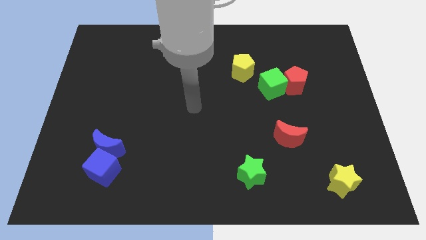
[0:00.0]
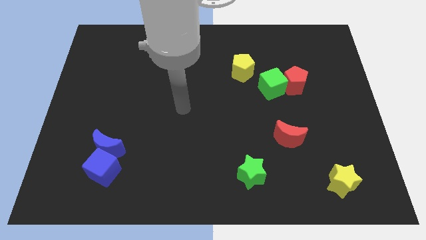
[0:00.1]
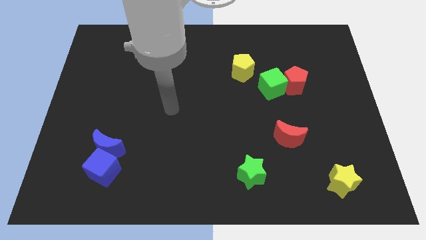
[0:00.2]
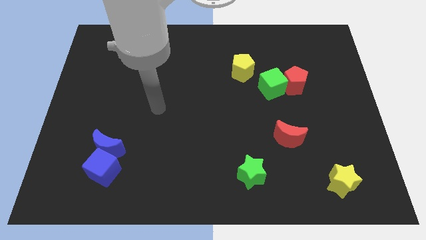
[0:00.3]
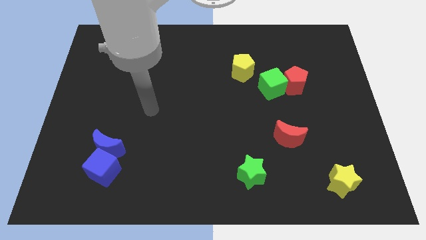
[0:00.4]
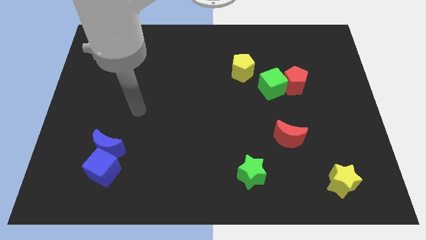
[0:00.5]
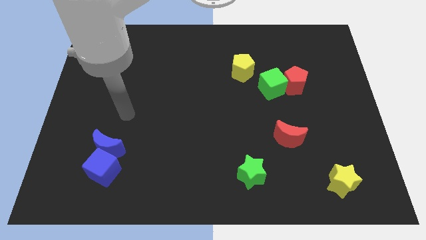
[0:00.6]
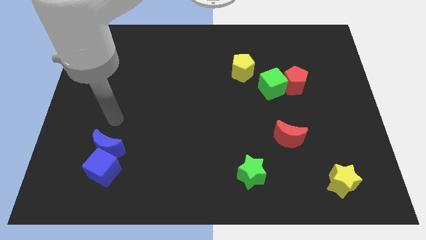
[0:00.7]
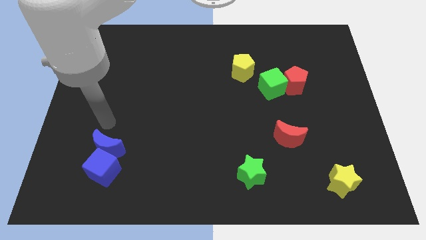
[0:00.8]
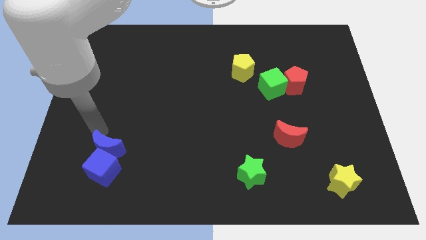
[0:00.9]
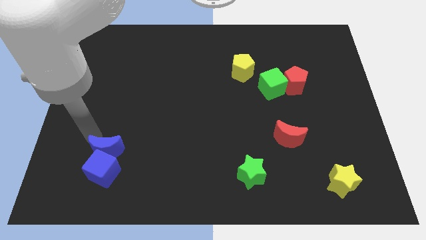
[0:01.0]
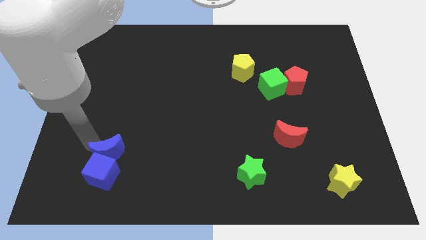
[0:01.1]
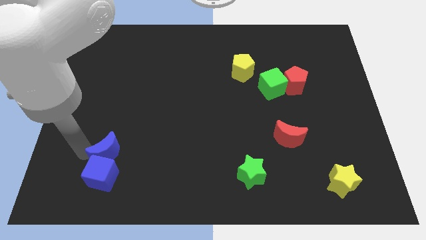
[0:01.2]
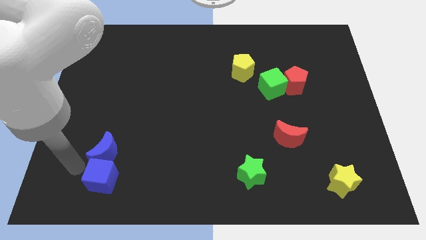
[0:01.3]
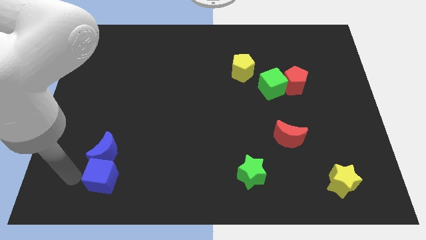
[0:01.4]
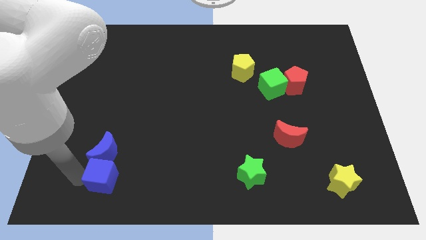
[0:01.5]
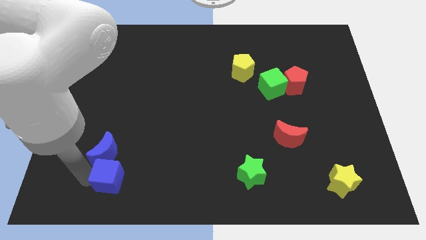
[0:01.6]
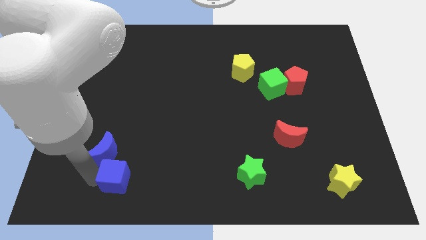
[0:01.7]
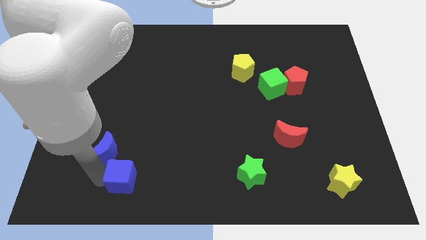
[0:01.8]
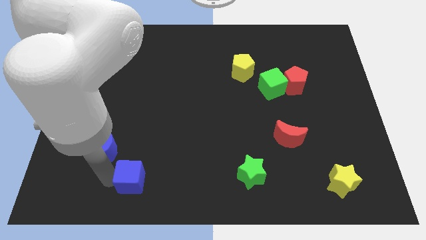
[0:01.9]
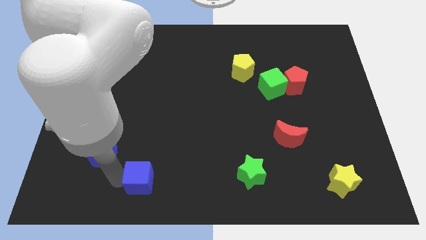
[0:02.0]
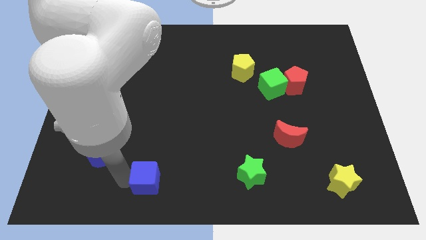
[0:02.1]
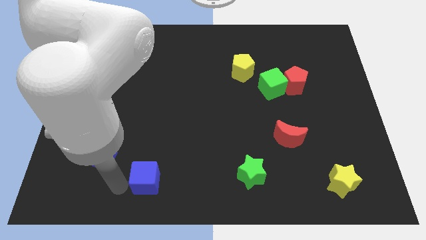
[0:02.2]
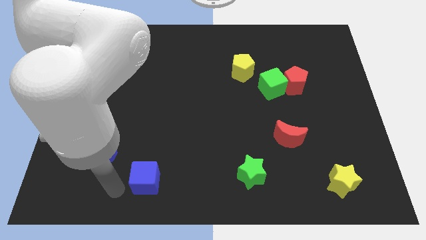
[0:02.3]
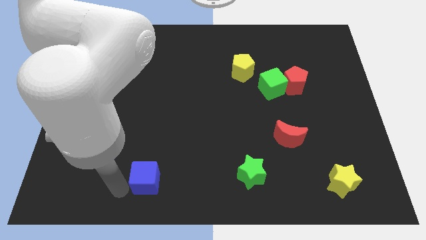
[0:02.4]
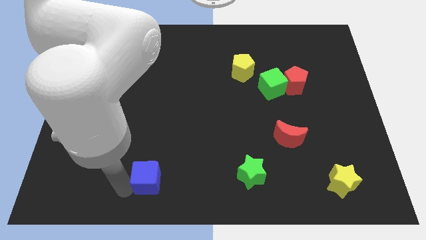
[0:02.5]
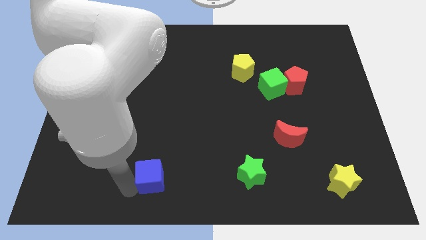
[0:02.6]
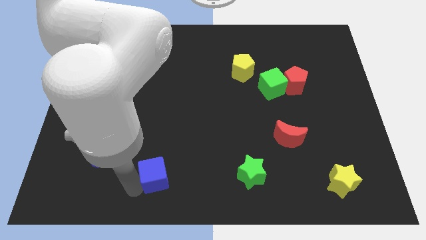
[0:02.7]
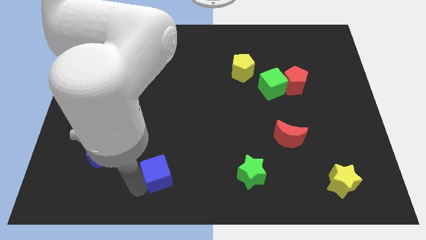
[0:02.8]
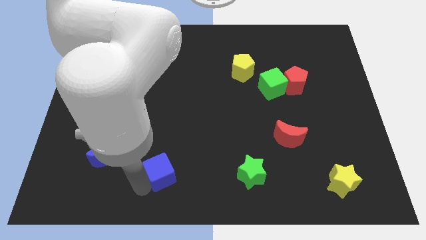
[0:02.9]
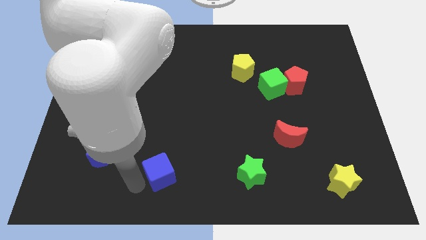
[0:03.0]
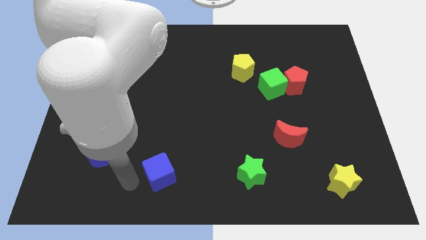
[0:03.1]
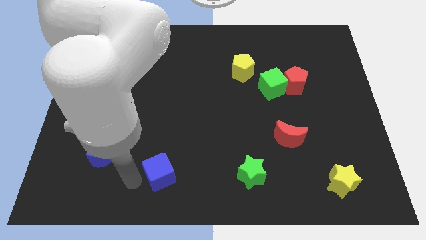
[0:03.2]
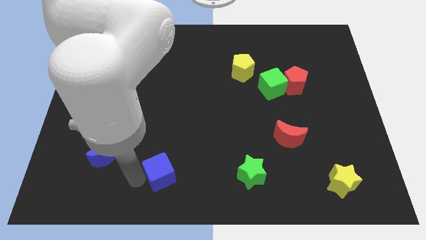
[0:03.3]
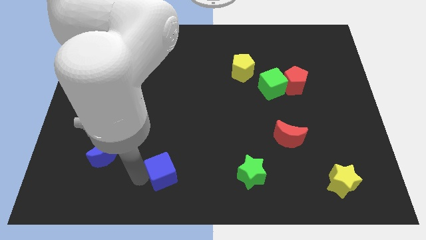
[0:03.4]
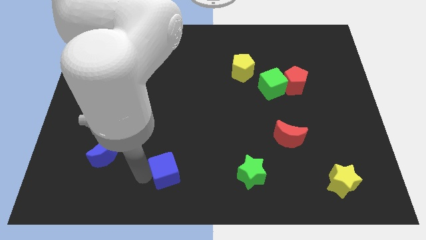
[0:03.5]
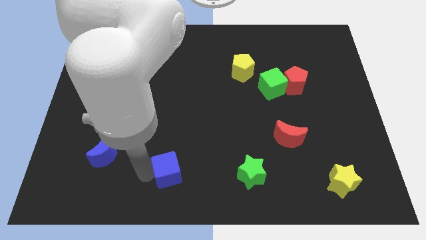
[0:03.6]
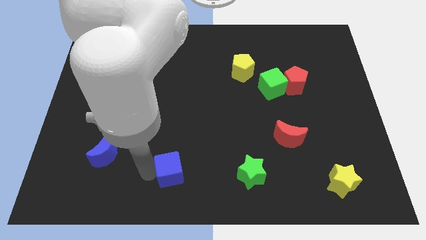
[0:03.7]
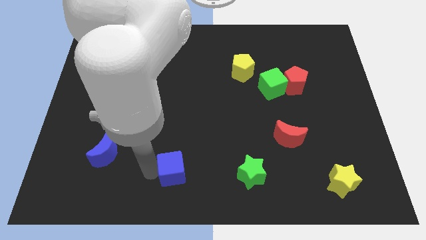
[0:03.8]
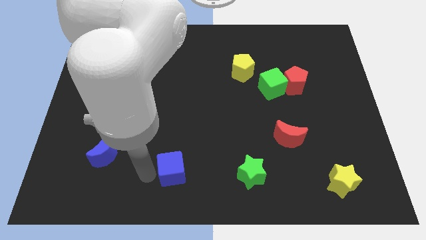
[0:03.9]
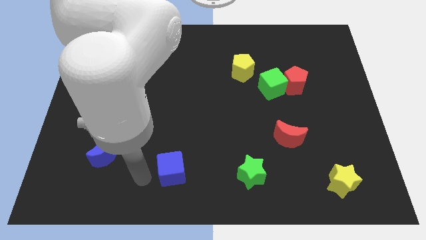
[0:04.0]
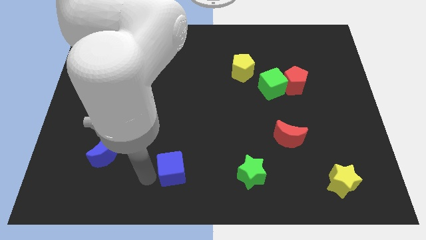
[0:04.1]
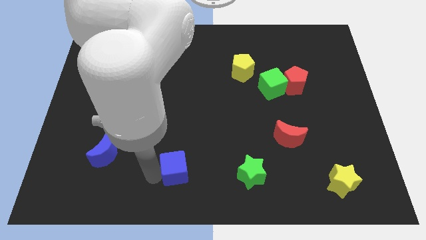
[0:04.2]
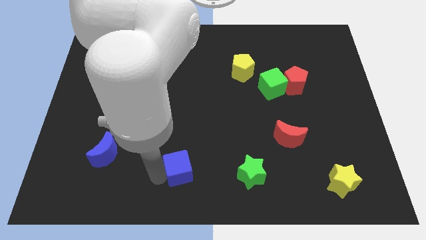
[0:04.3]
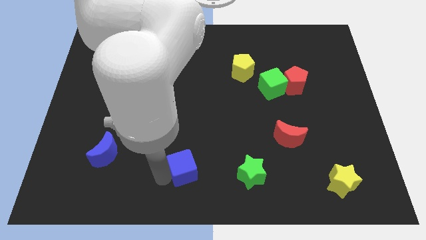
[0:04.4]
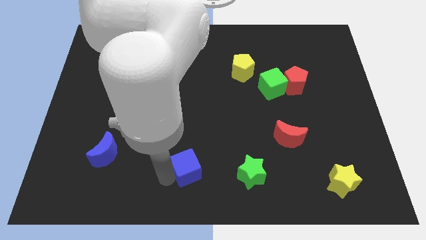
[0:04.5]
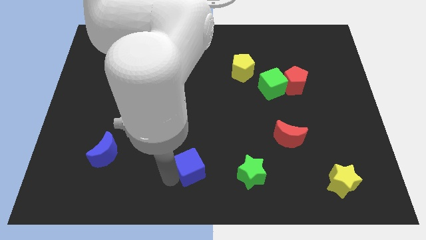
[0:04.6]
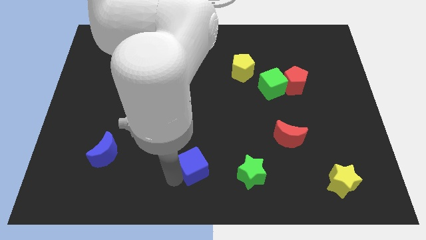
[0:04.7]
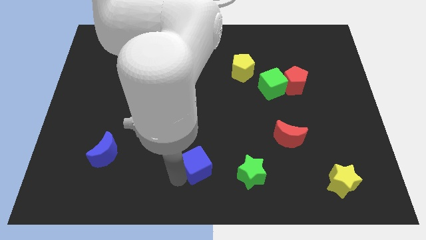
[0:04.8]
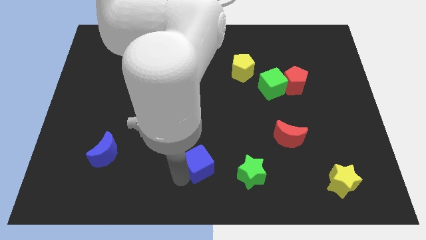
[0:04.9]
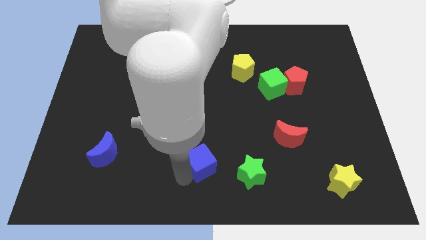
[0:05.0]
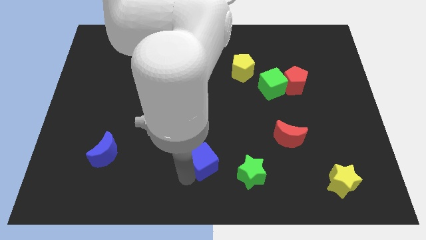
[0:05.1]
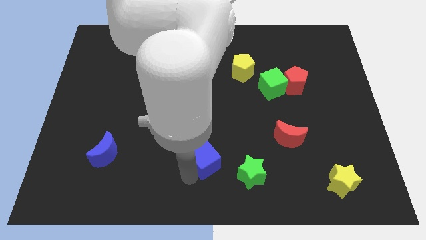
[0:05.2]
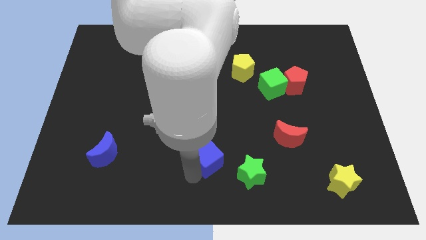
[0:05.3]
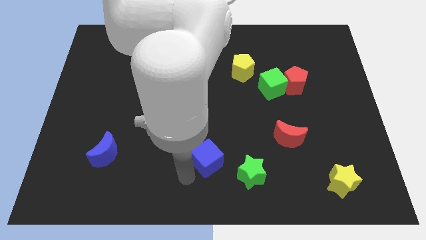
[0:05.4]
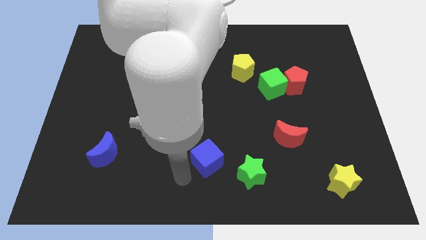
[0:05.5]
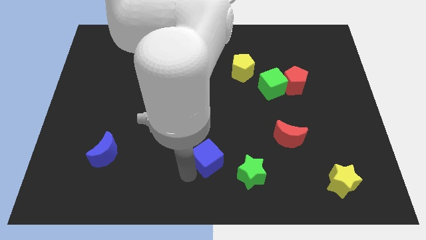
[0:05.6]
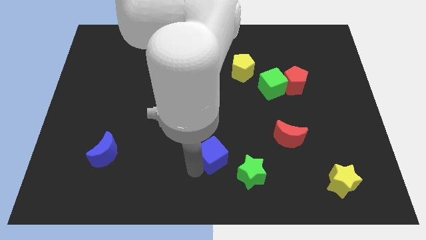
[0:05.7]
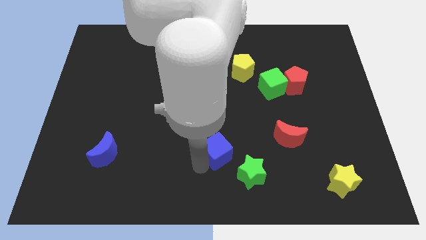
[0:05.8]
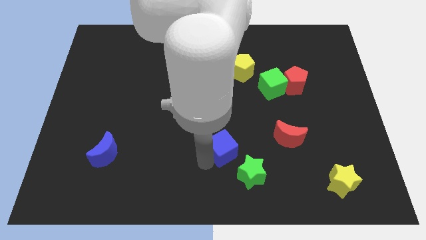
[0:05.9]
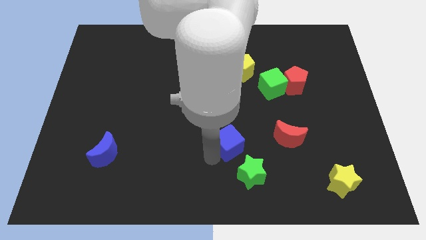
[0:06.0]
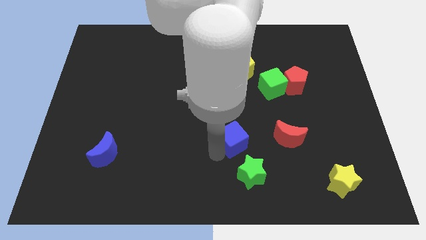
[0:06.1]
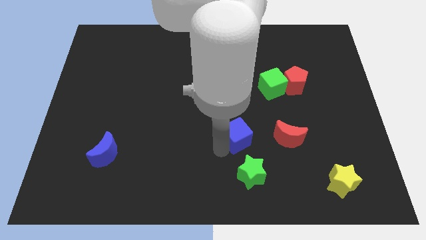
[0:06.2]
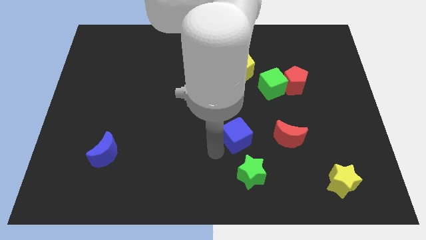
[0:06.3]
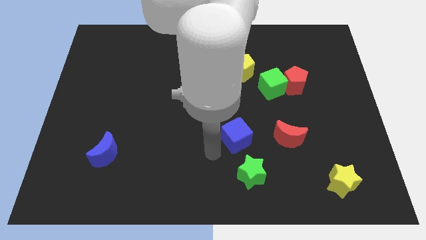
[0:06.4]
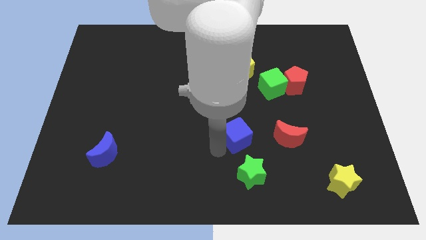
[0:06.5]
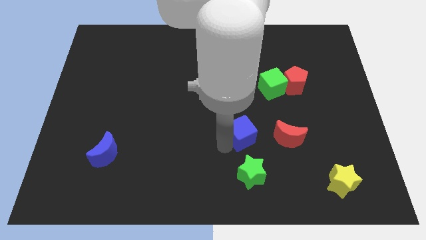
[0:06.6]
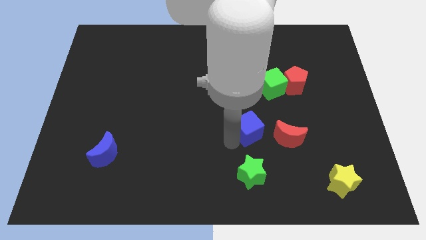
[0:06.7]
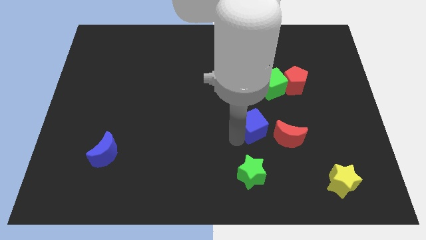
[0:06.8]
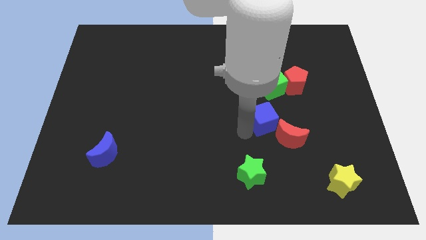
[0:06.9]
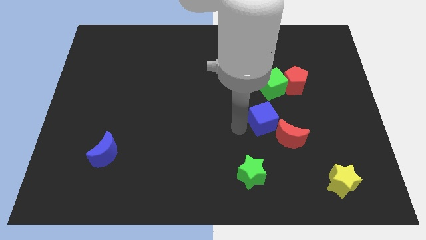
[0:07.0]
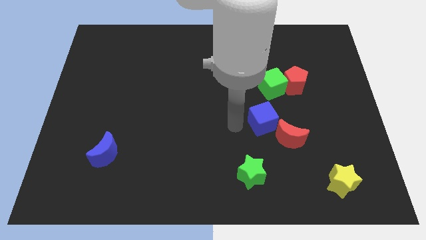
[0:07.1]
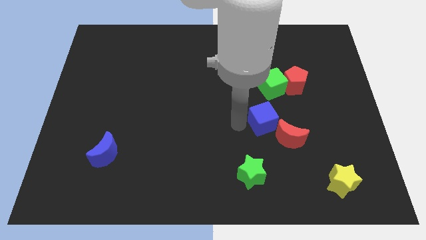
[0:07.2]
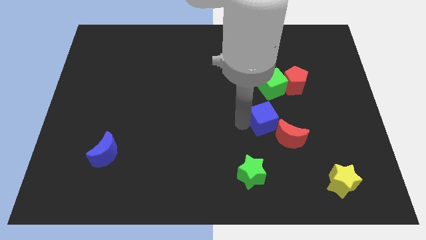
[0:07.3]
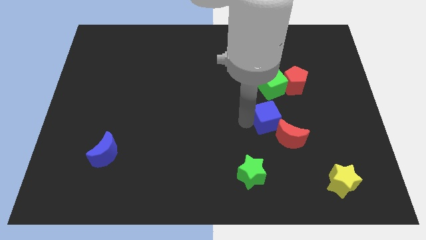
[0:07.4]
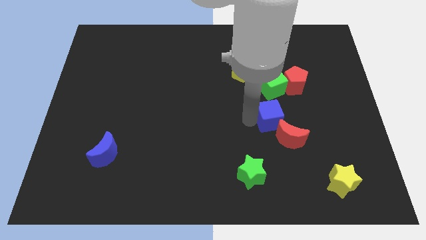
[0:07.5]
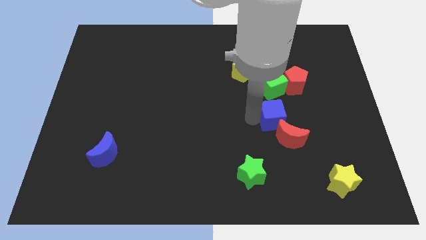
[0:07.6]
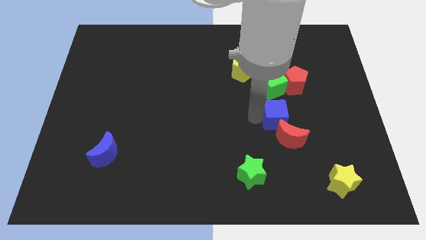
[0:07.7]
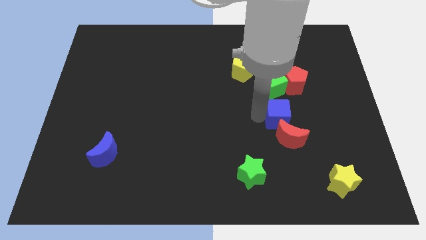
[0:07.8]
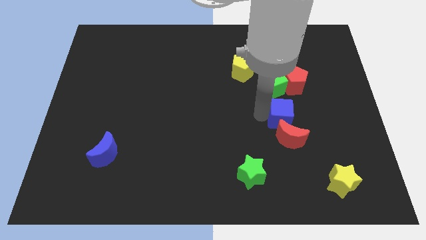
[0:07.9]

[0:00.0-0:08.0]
put the blue cube to the bottom of the red pentagon
